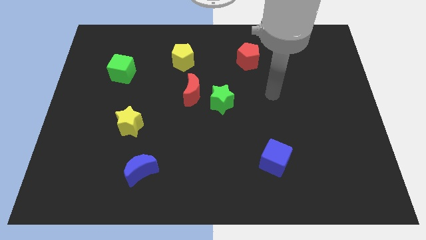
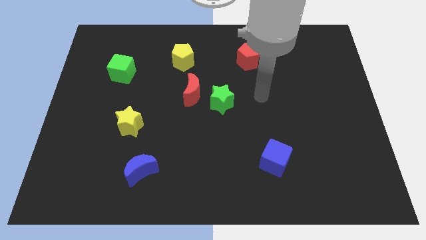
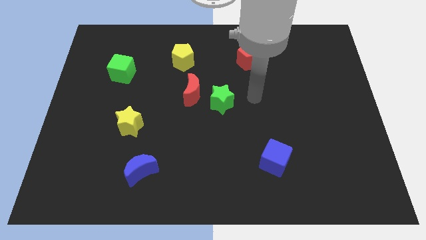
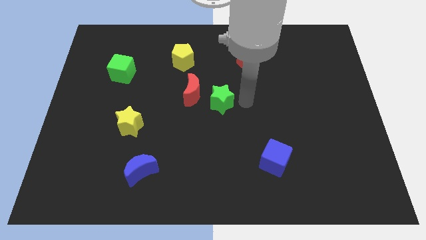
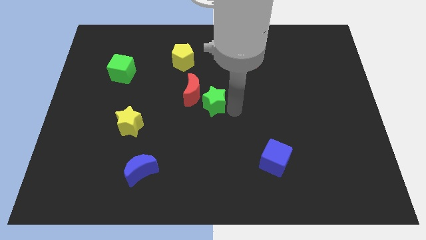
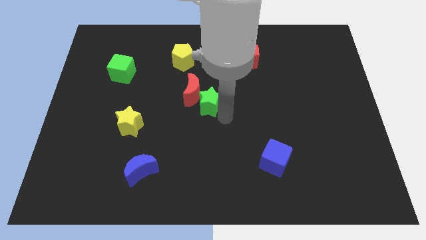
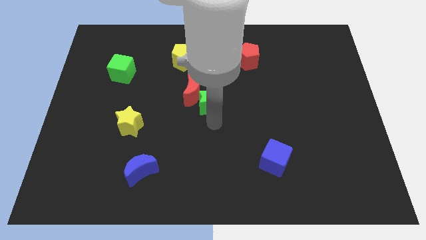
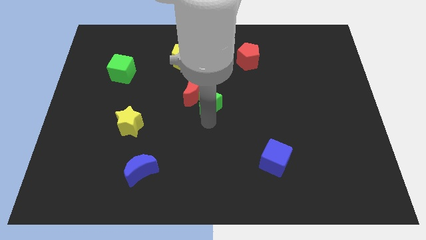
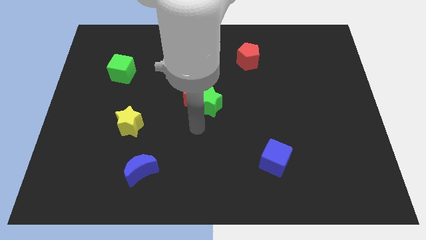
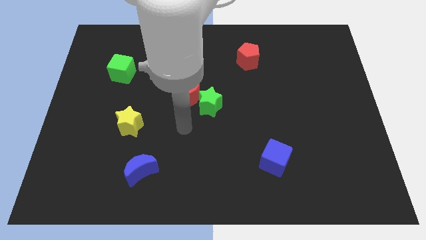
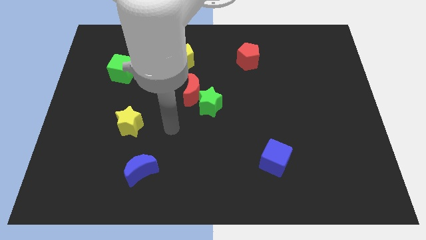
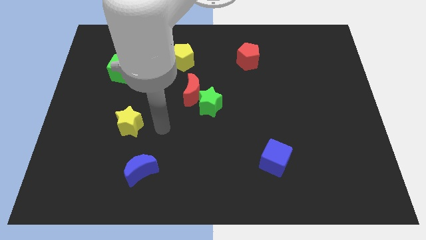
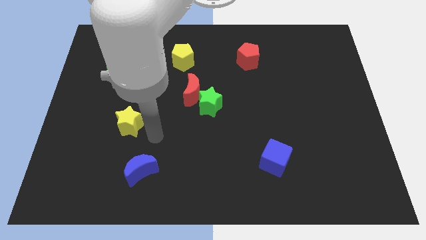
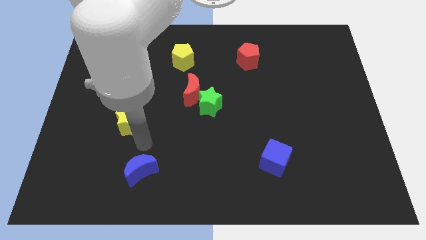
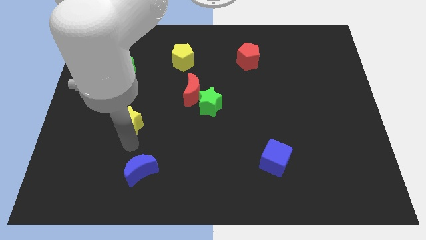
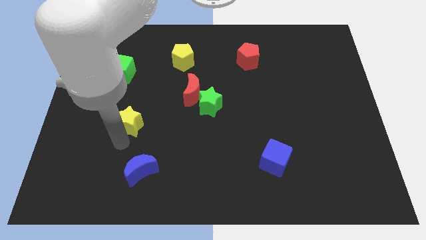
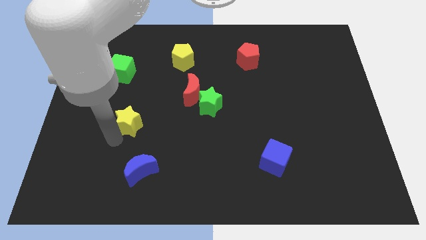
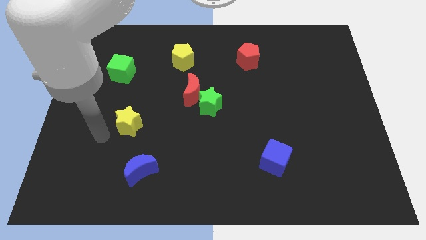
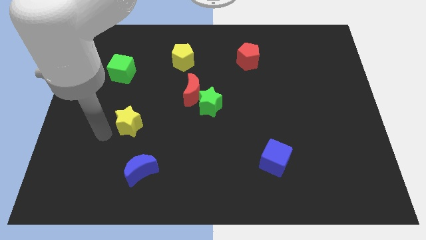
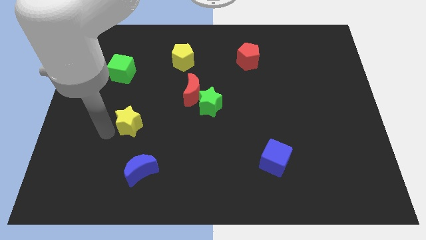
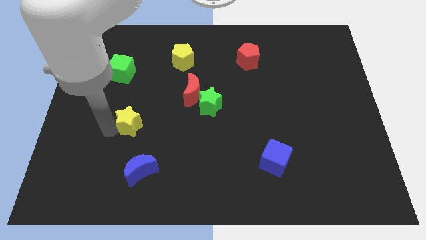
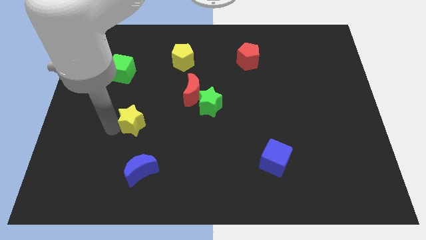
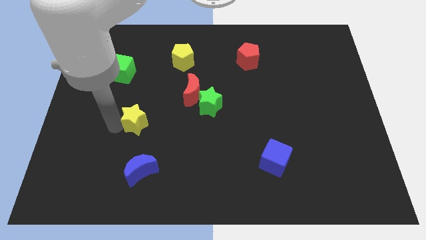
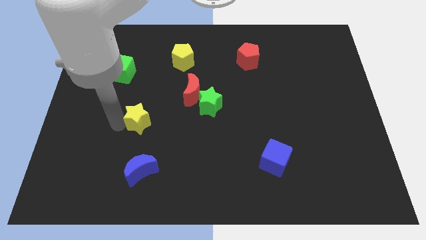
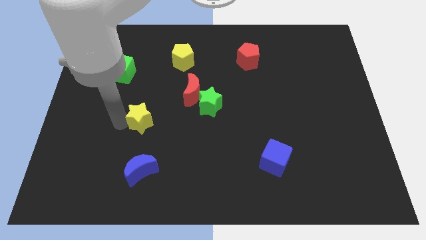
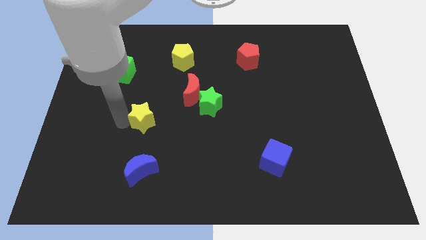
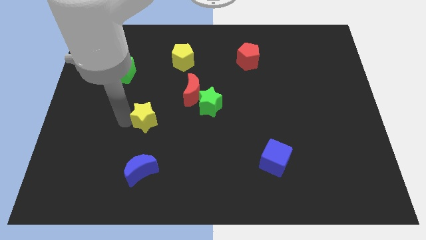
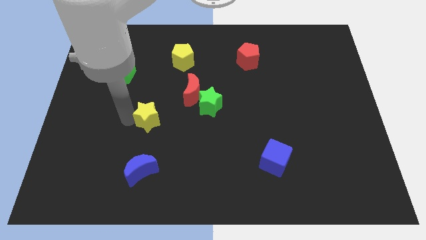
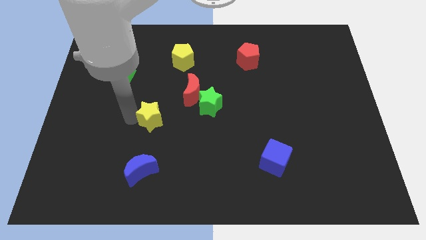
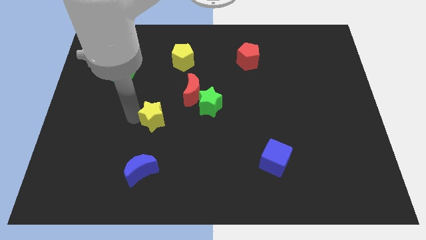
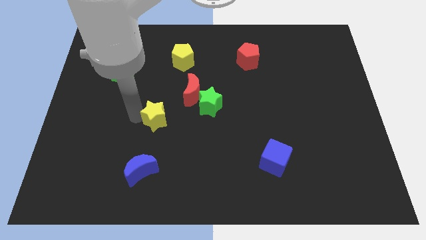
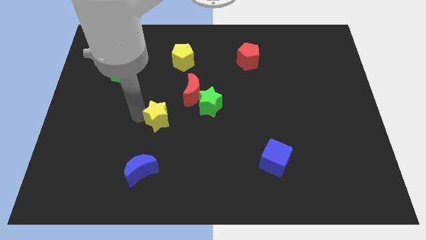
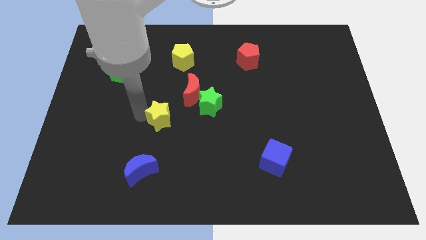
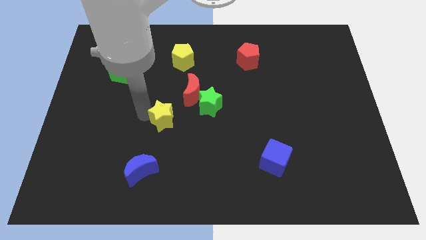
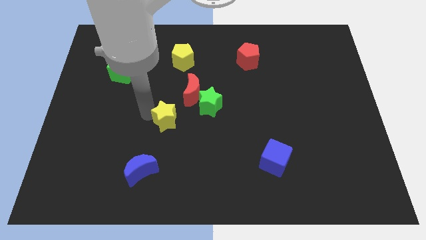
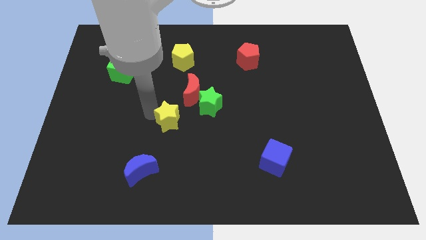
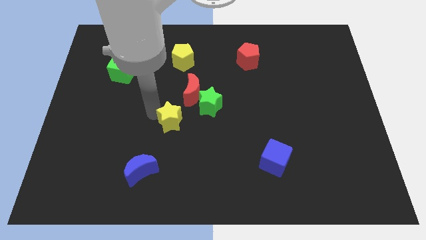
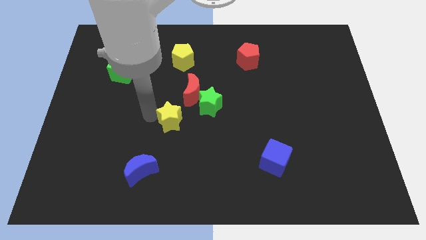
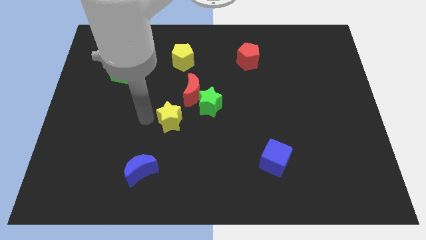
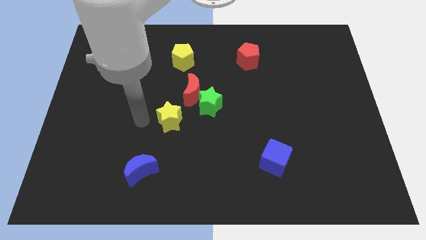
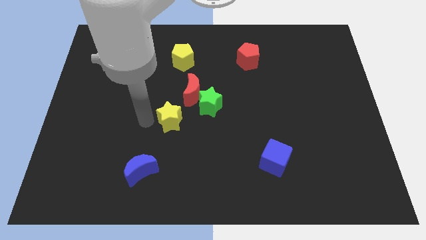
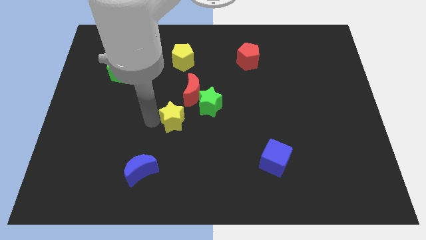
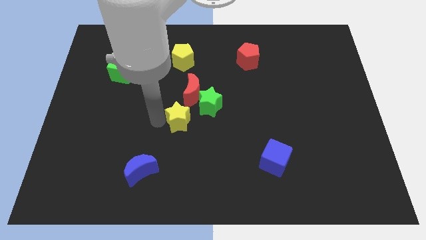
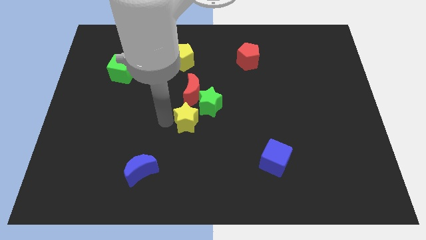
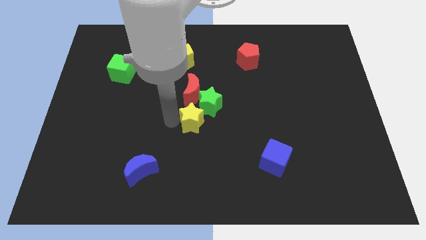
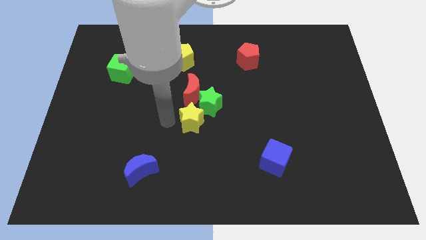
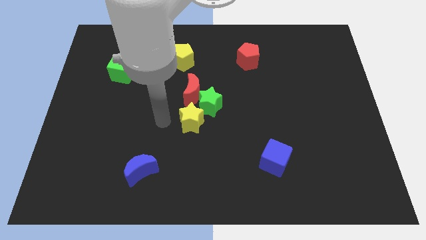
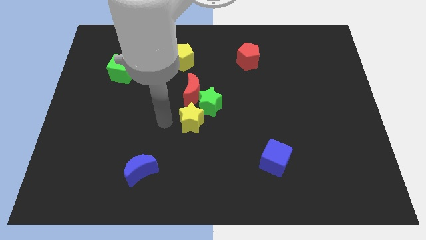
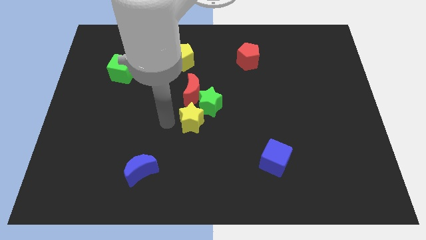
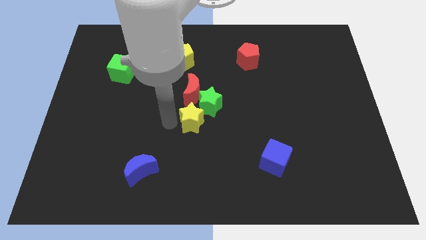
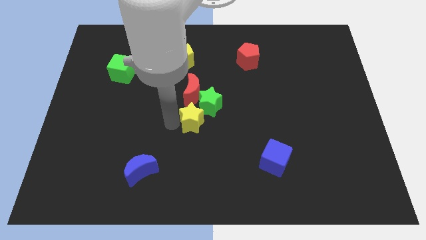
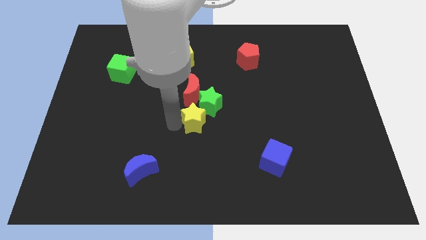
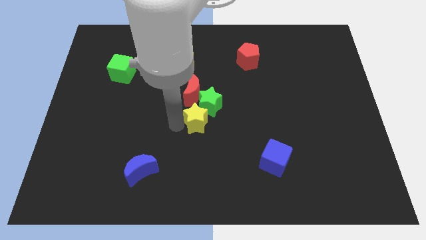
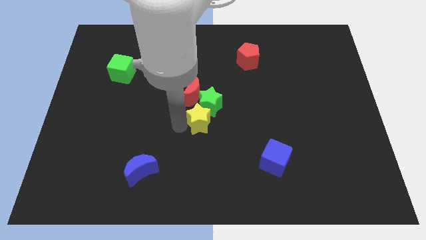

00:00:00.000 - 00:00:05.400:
put the yellow star to the bottom right side of the red moon

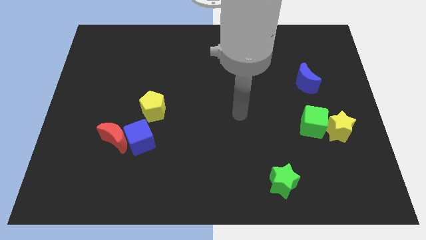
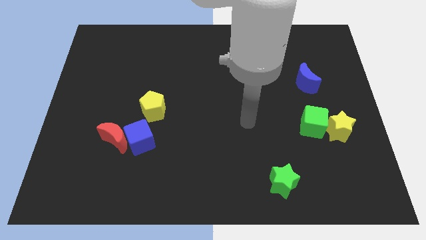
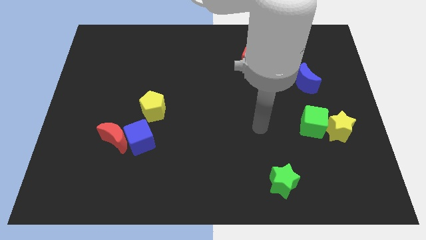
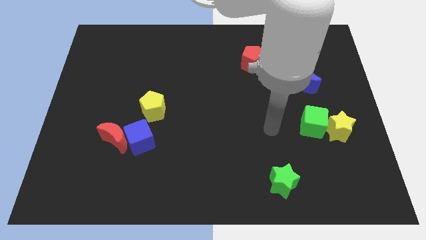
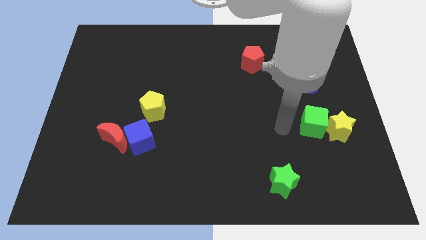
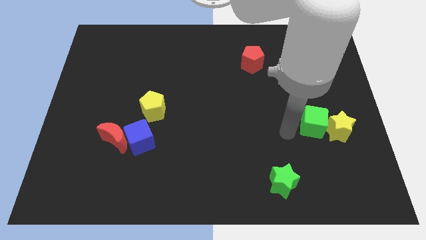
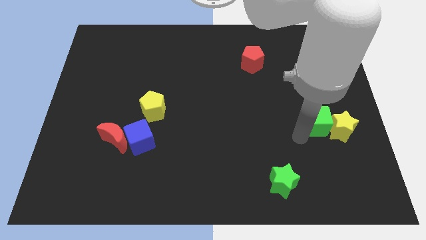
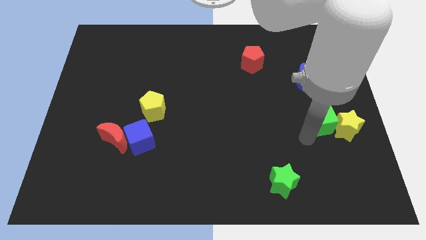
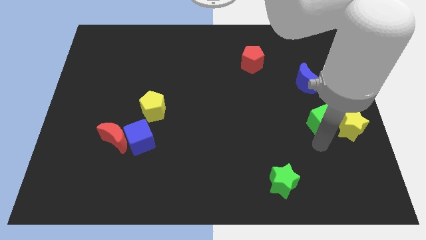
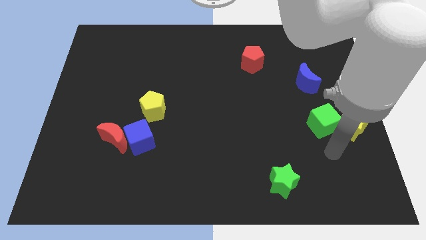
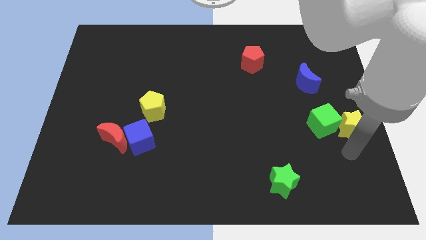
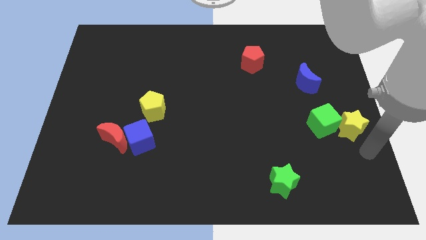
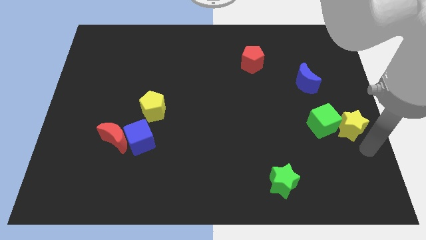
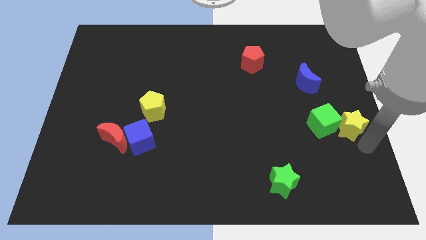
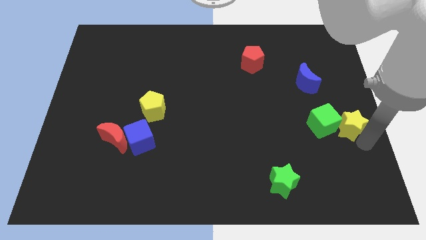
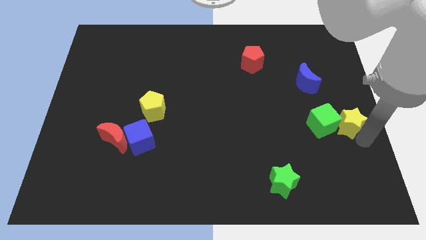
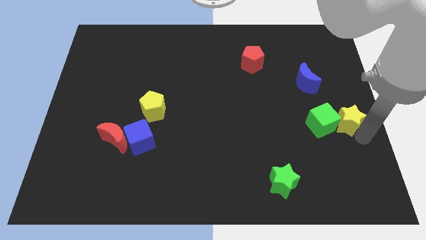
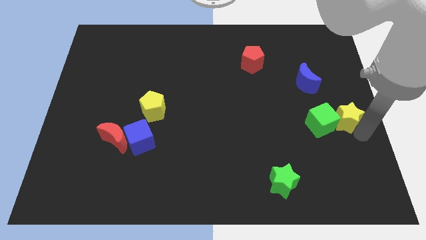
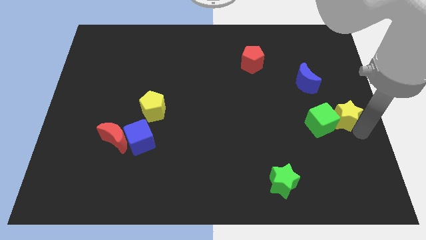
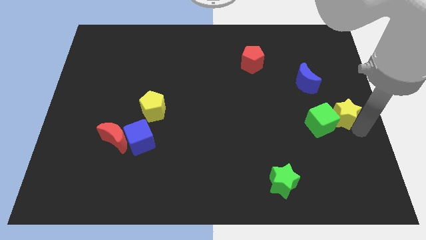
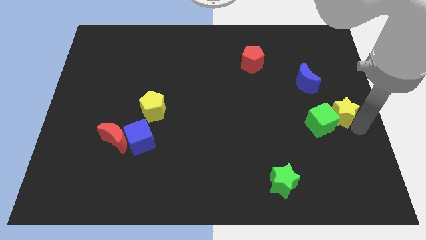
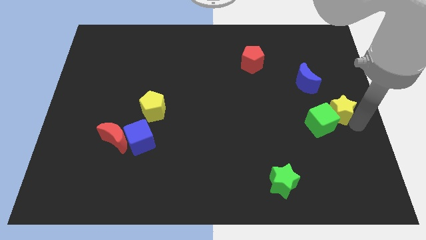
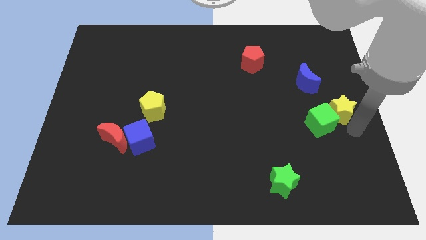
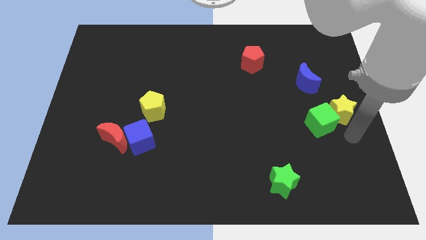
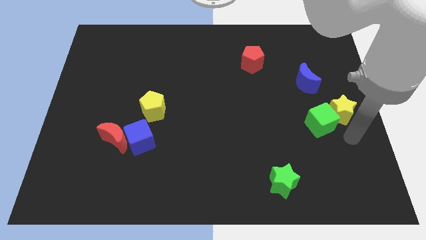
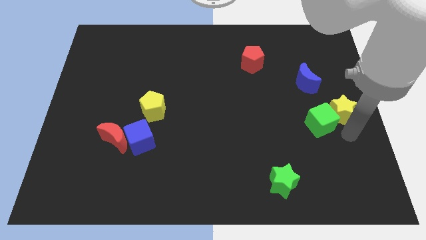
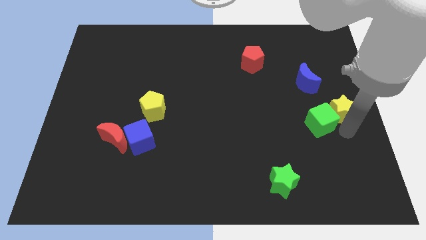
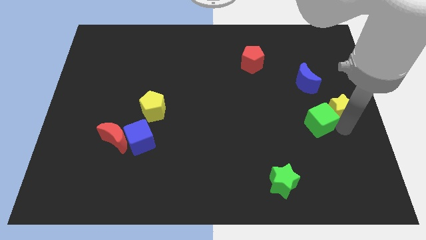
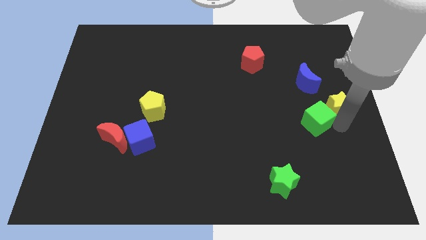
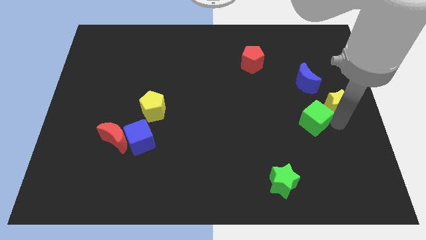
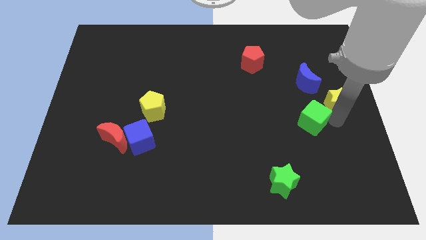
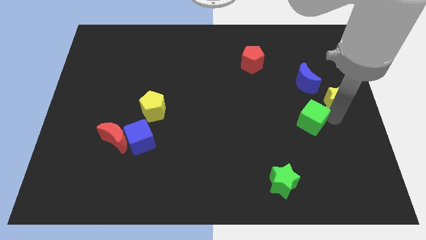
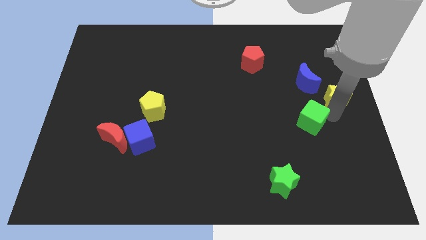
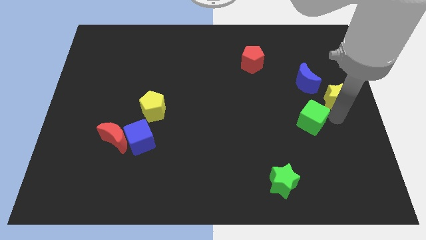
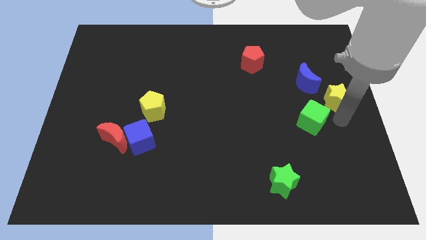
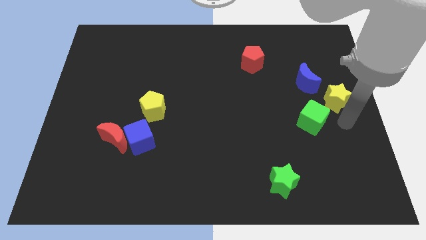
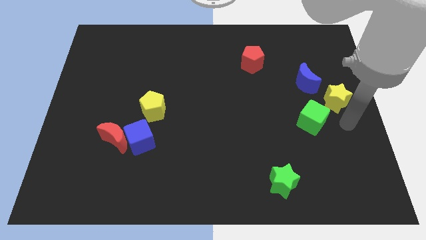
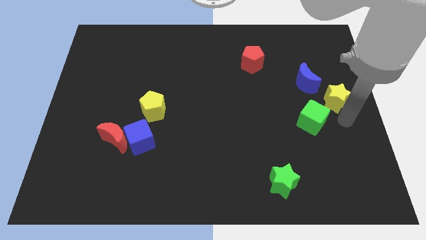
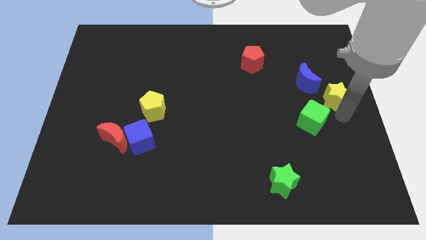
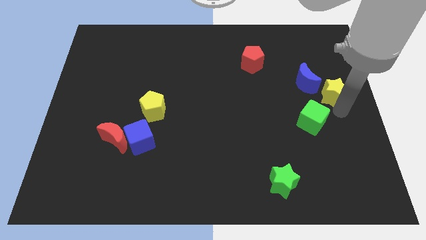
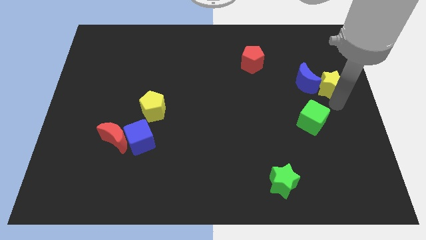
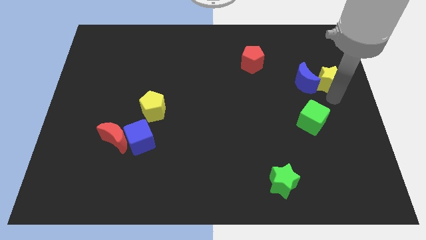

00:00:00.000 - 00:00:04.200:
push the yellow star to the top right of the blue moon
